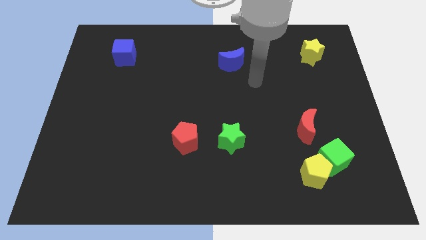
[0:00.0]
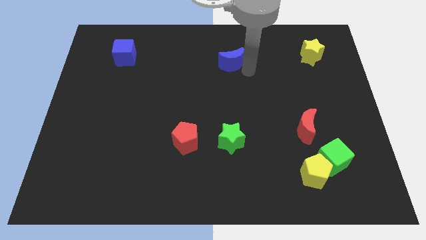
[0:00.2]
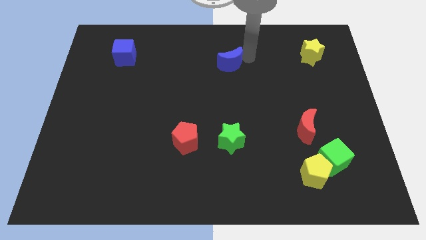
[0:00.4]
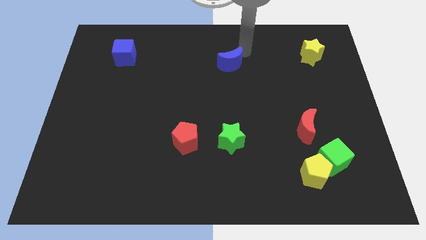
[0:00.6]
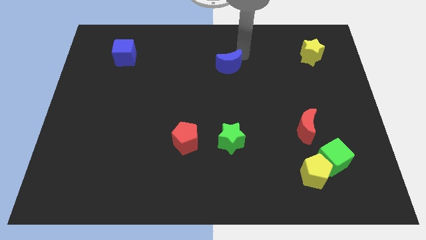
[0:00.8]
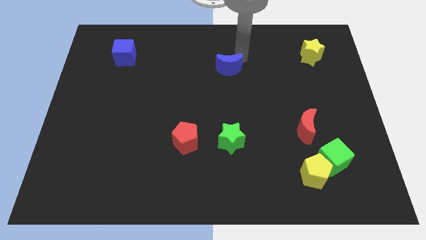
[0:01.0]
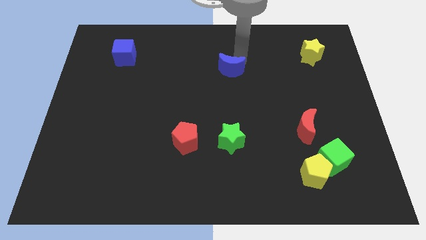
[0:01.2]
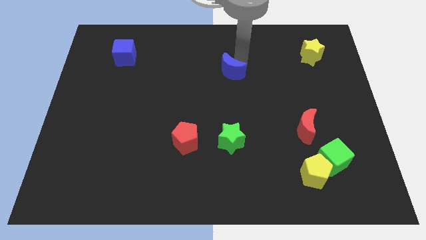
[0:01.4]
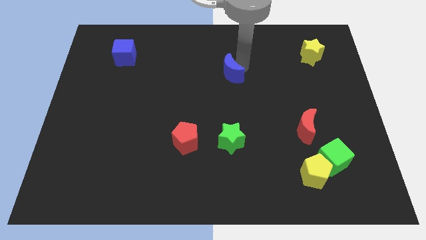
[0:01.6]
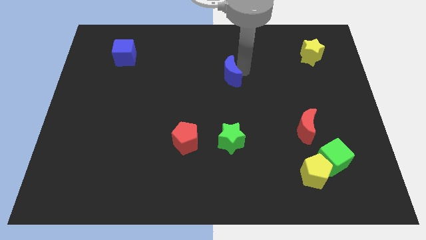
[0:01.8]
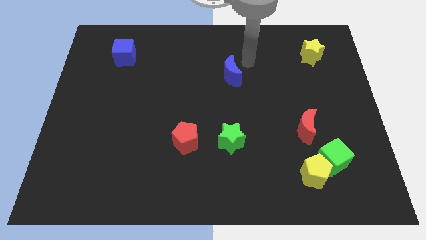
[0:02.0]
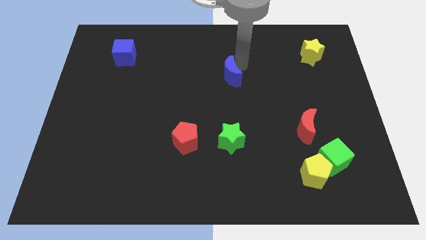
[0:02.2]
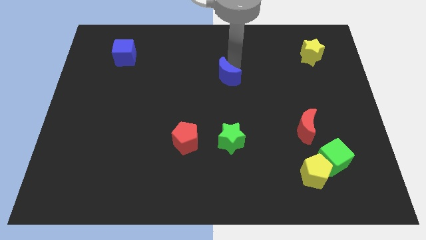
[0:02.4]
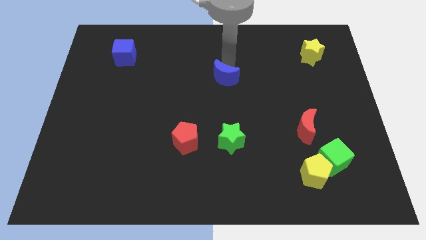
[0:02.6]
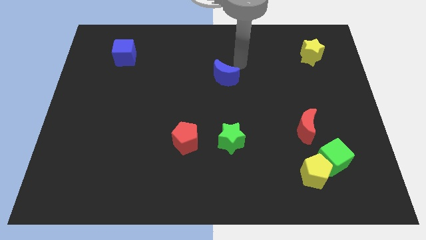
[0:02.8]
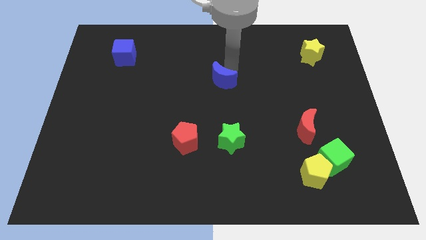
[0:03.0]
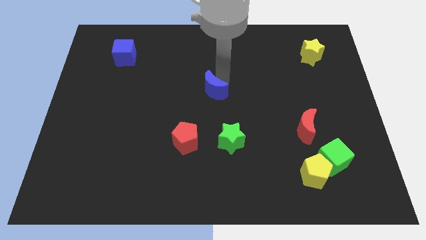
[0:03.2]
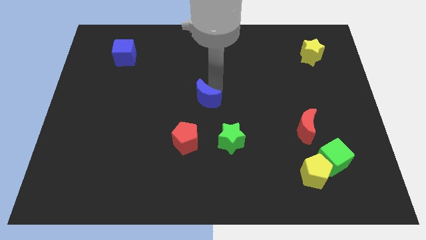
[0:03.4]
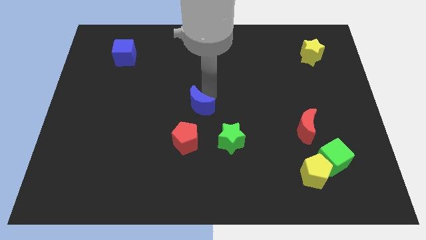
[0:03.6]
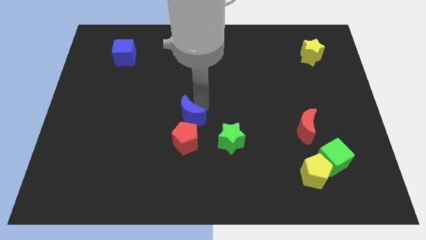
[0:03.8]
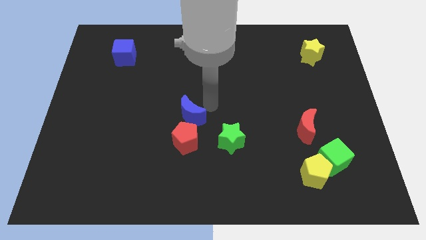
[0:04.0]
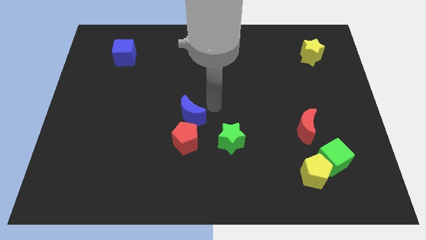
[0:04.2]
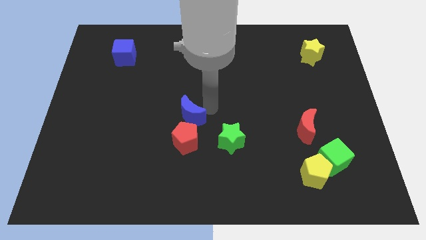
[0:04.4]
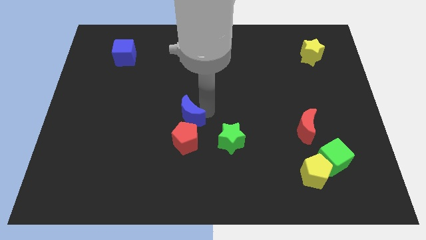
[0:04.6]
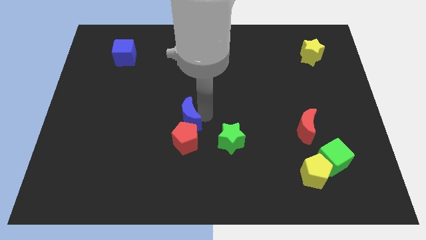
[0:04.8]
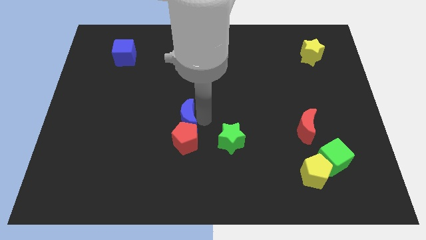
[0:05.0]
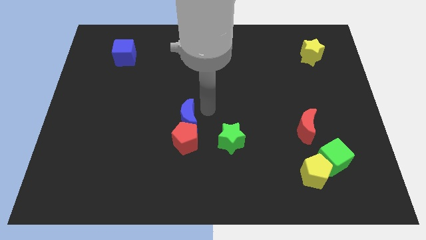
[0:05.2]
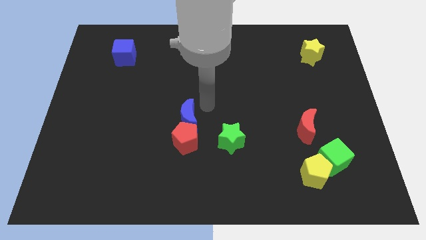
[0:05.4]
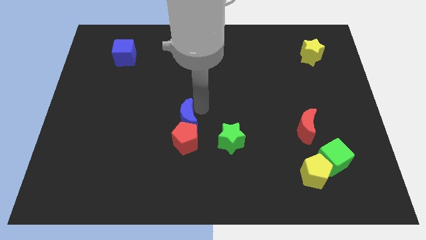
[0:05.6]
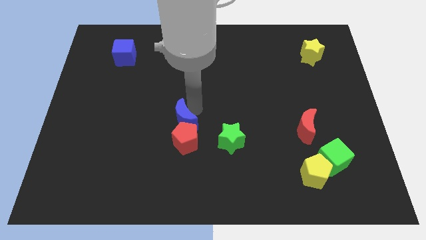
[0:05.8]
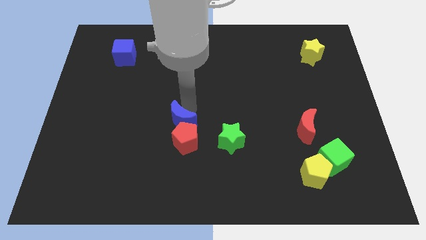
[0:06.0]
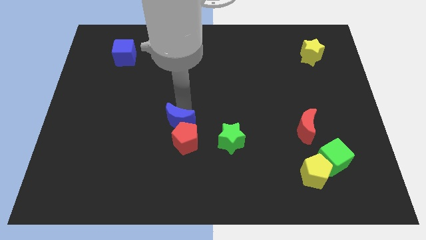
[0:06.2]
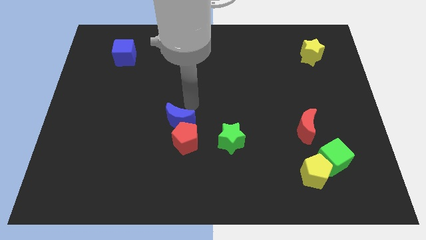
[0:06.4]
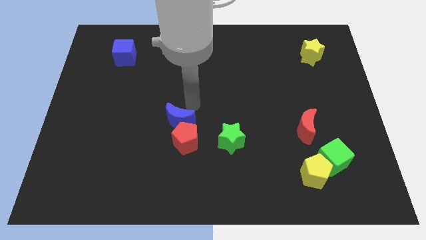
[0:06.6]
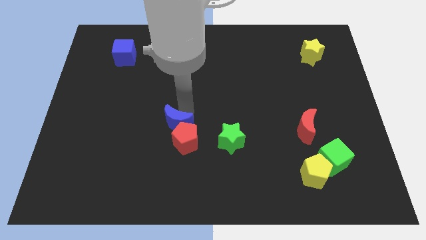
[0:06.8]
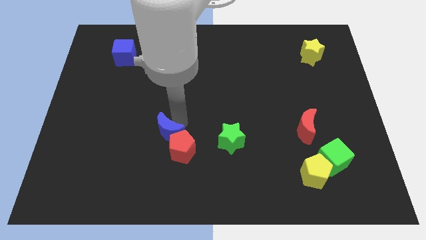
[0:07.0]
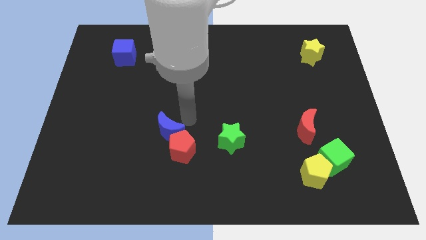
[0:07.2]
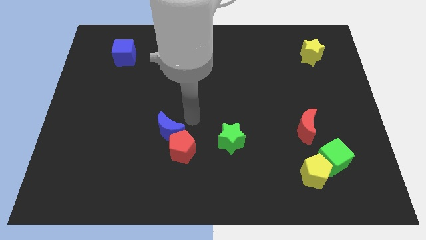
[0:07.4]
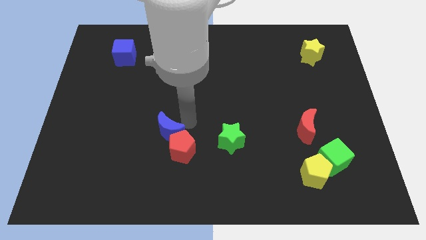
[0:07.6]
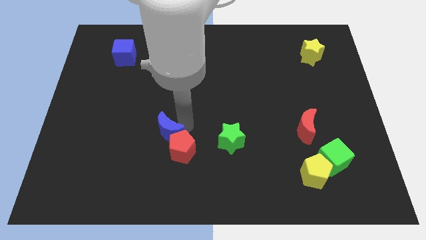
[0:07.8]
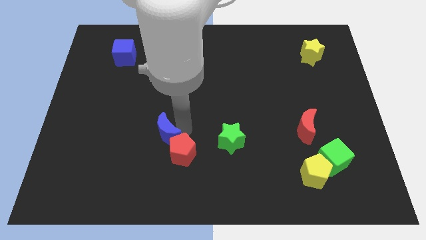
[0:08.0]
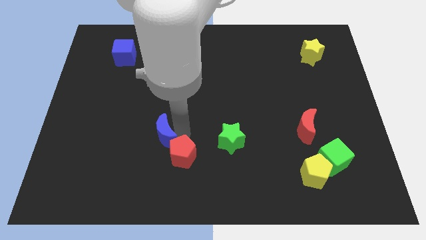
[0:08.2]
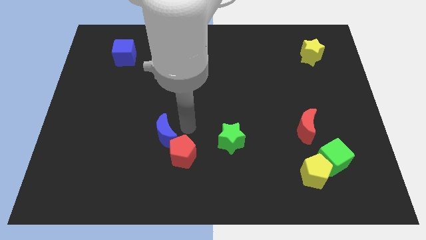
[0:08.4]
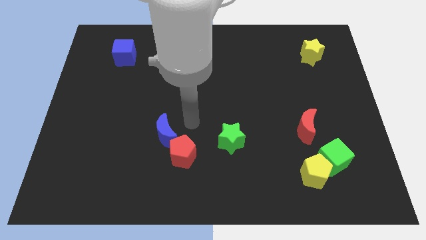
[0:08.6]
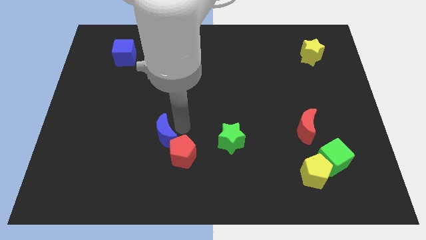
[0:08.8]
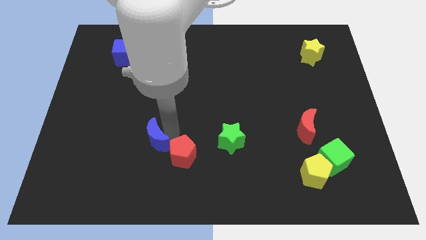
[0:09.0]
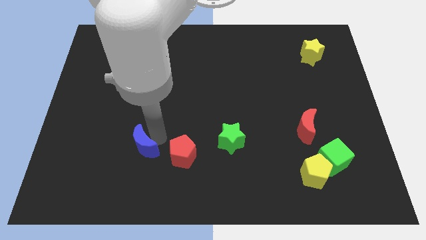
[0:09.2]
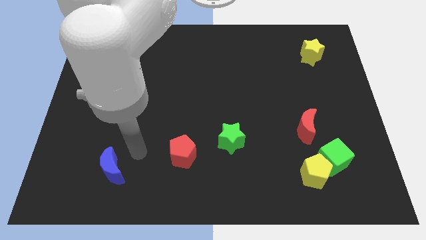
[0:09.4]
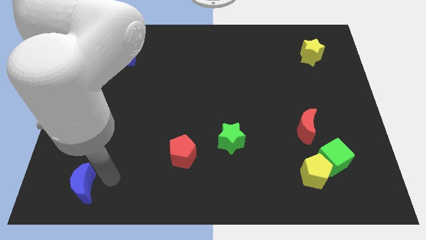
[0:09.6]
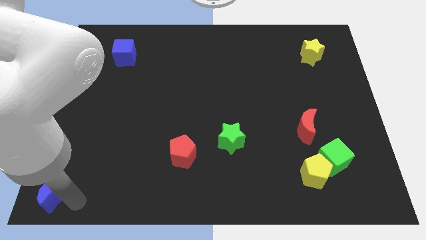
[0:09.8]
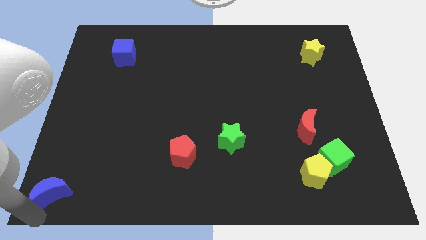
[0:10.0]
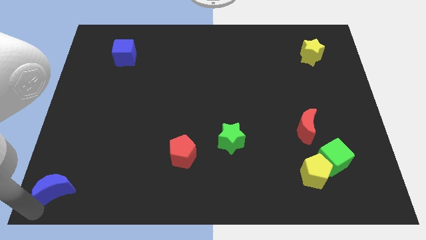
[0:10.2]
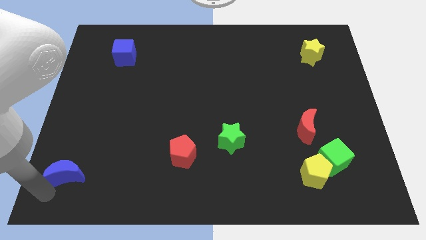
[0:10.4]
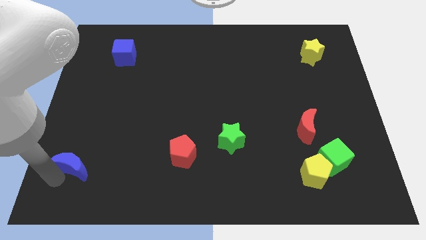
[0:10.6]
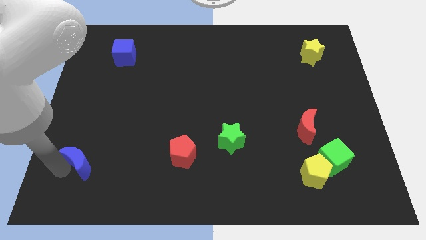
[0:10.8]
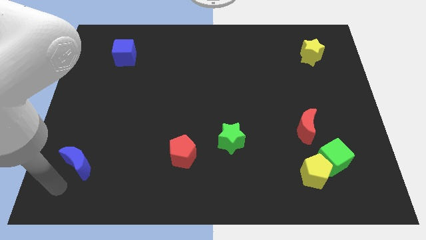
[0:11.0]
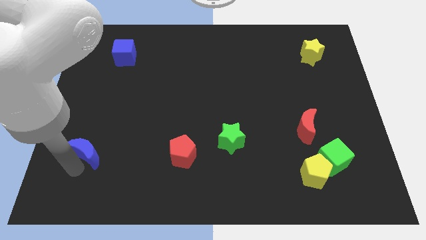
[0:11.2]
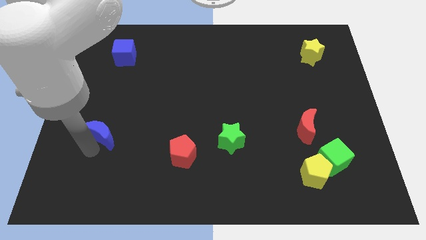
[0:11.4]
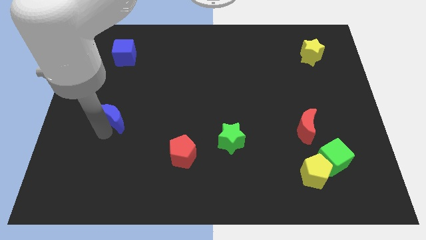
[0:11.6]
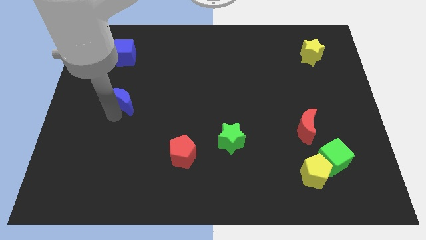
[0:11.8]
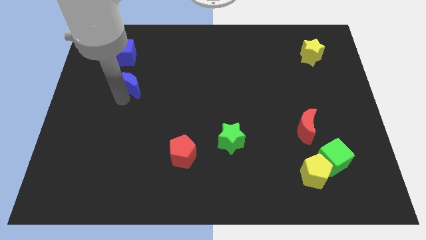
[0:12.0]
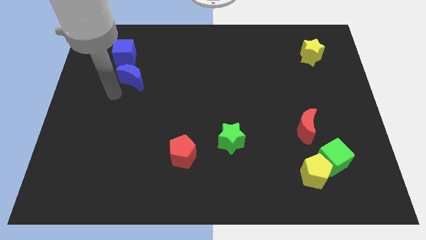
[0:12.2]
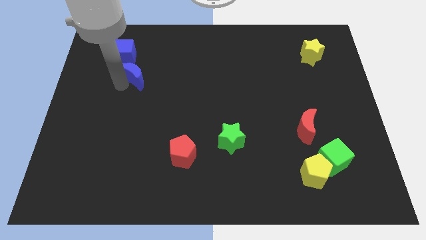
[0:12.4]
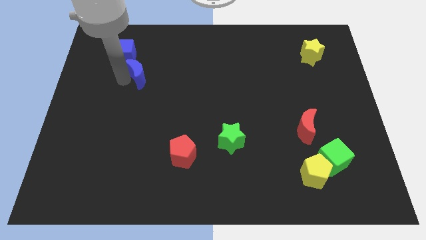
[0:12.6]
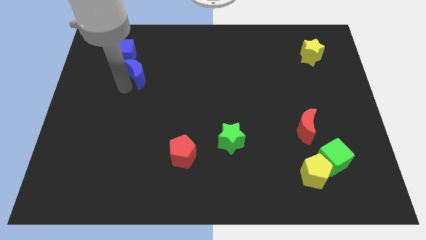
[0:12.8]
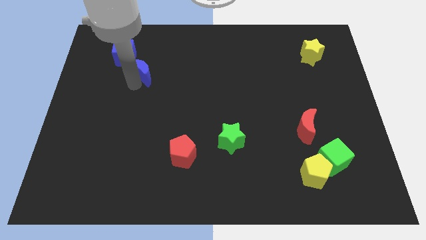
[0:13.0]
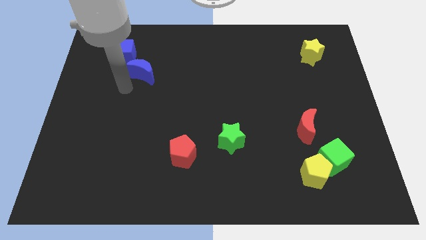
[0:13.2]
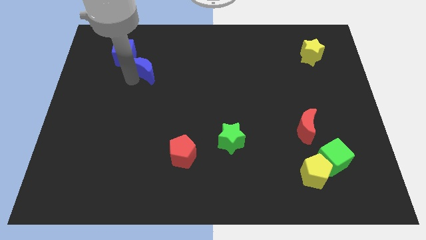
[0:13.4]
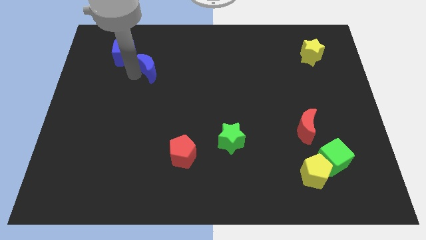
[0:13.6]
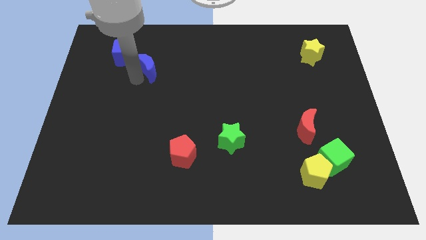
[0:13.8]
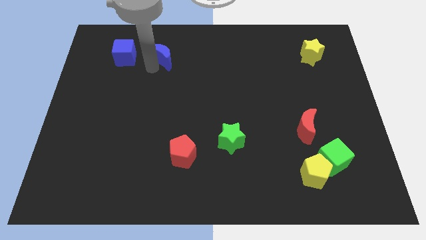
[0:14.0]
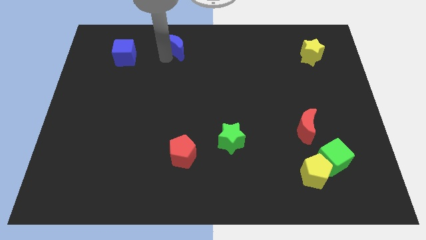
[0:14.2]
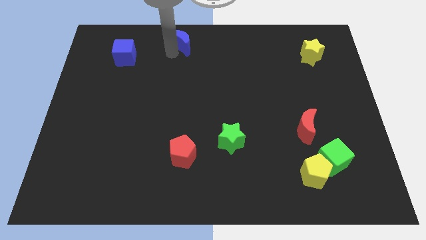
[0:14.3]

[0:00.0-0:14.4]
slide the blue moon to the towards your base

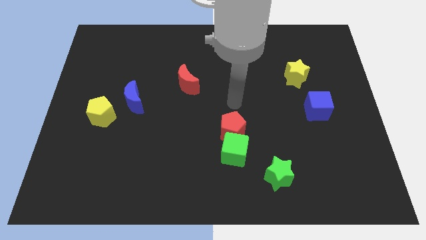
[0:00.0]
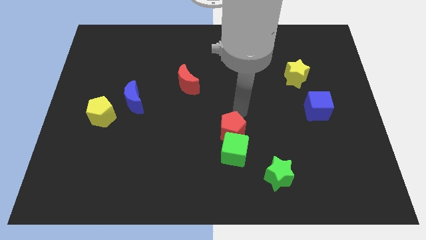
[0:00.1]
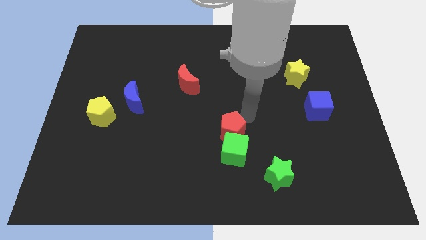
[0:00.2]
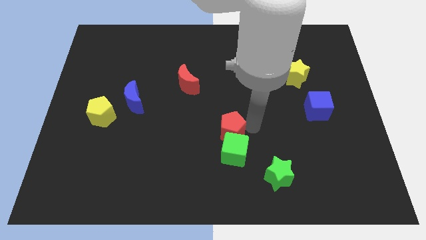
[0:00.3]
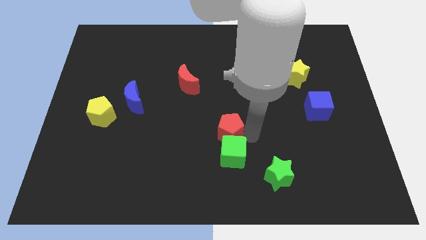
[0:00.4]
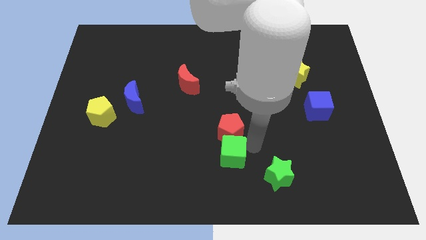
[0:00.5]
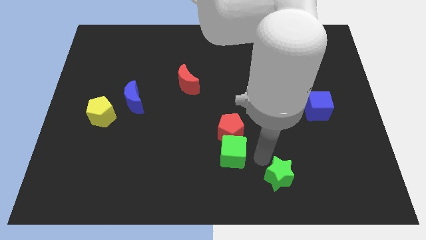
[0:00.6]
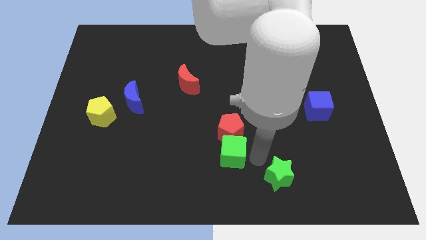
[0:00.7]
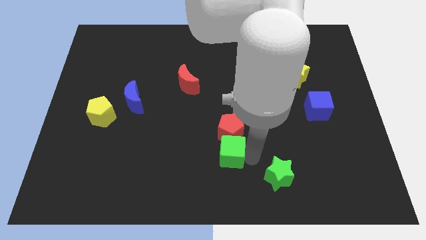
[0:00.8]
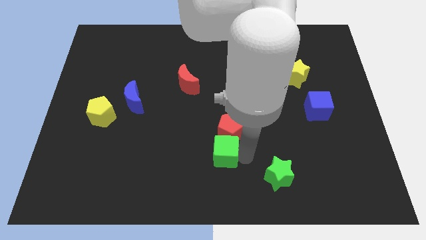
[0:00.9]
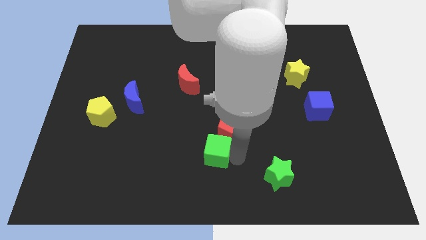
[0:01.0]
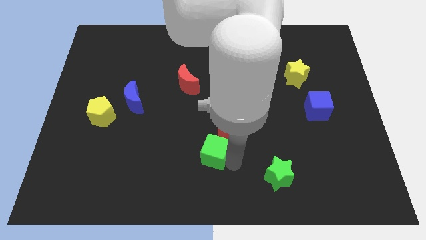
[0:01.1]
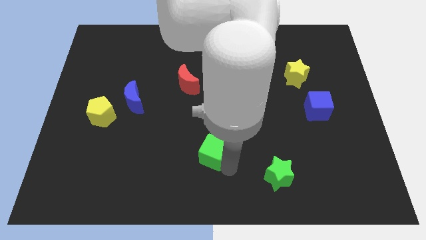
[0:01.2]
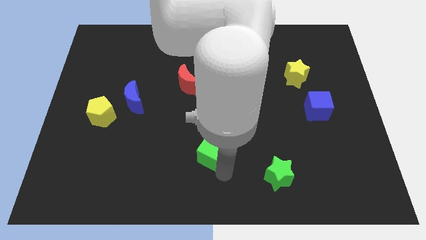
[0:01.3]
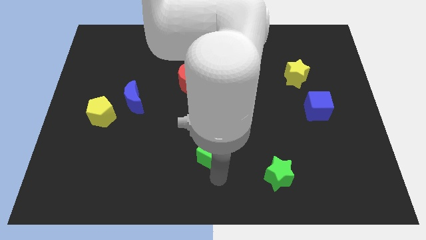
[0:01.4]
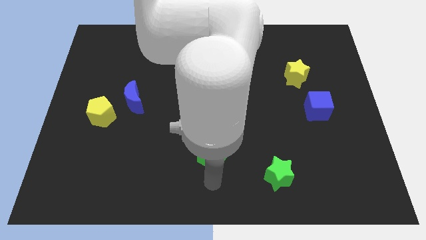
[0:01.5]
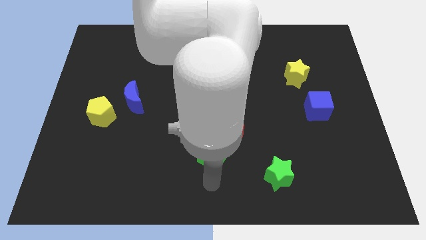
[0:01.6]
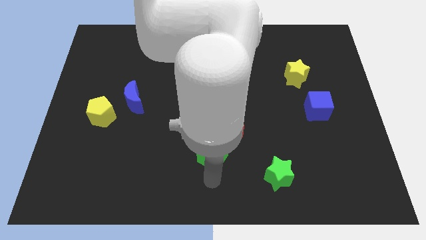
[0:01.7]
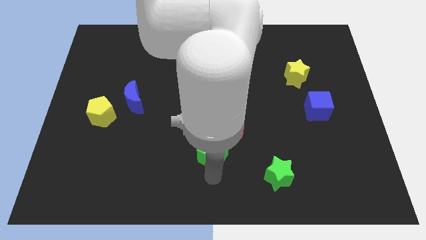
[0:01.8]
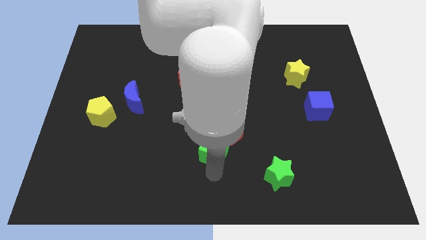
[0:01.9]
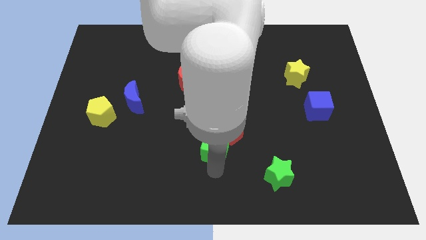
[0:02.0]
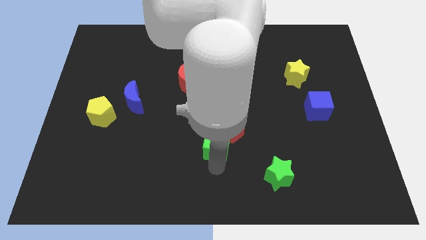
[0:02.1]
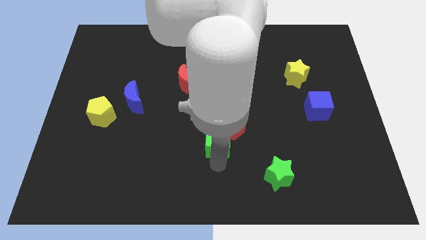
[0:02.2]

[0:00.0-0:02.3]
slide the green cube to the middle
